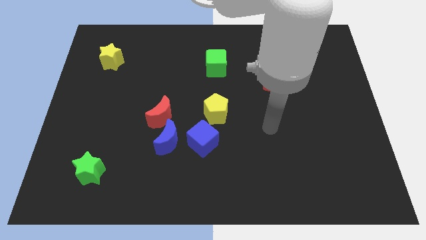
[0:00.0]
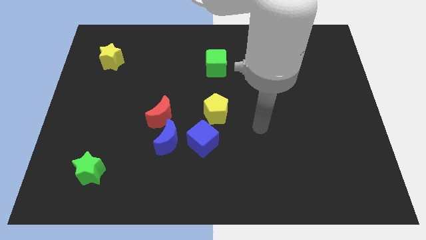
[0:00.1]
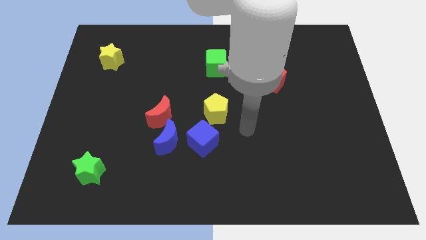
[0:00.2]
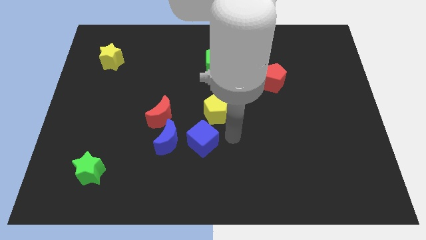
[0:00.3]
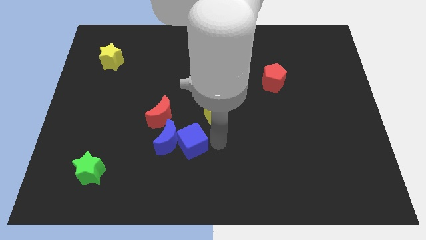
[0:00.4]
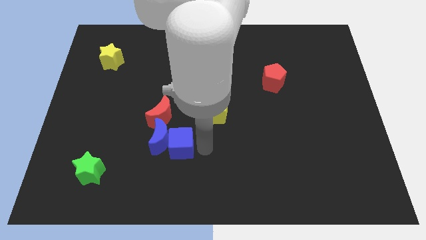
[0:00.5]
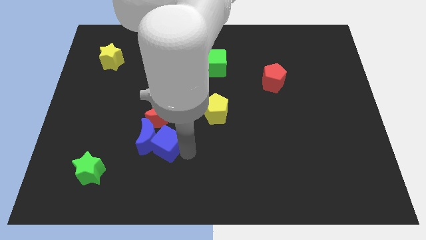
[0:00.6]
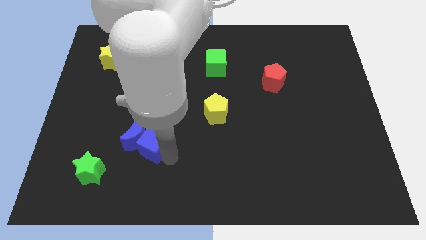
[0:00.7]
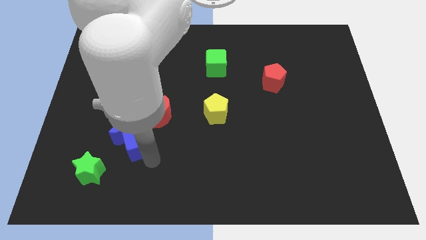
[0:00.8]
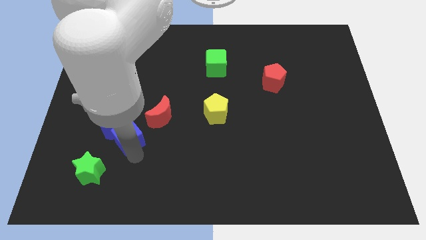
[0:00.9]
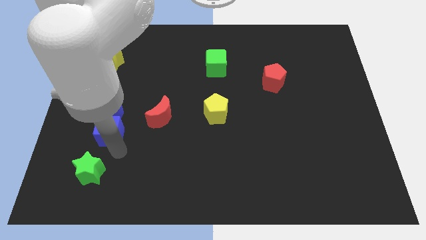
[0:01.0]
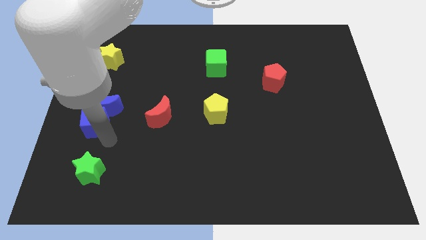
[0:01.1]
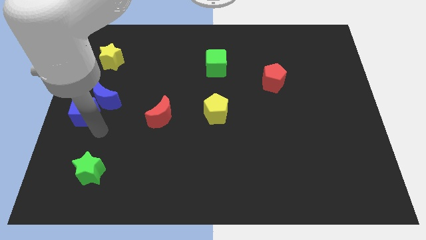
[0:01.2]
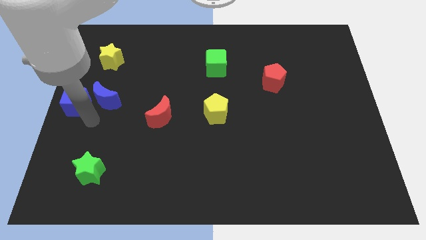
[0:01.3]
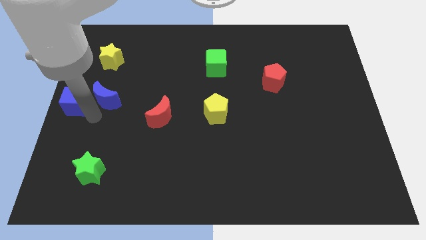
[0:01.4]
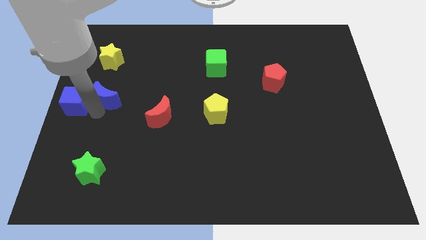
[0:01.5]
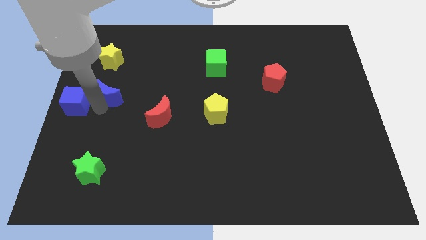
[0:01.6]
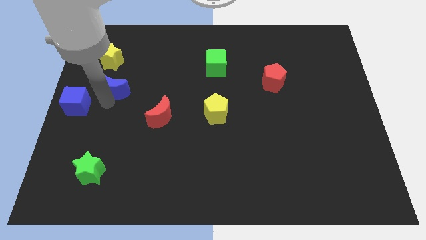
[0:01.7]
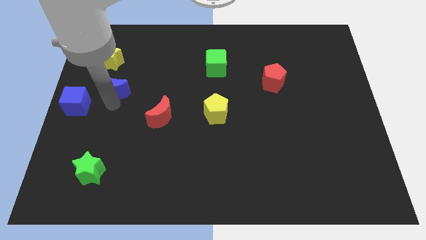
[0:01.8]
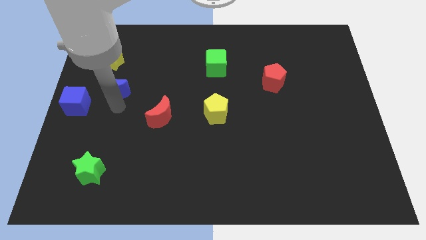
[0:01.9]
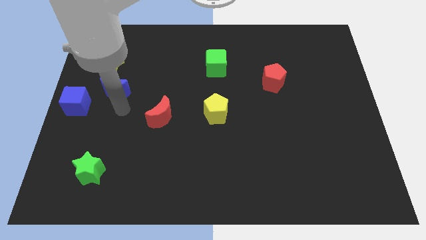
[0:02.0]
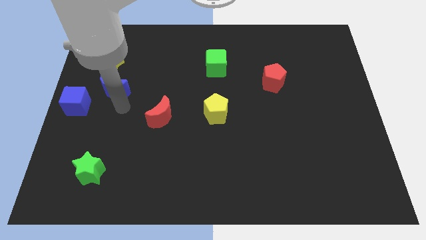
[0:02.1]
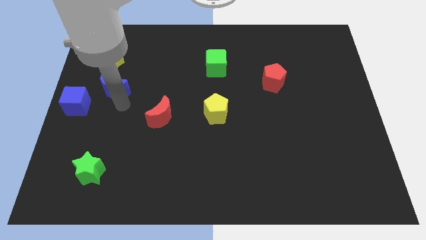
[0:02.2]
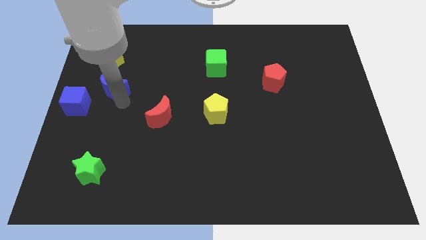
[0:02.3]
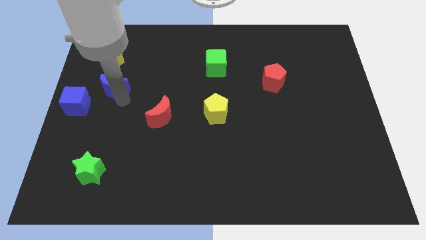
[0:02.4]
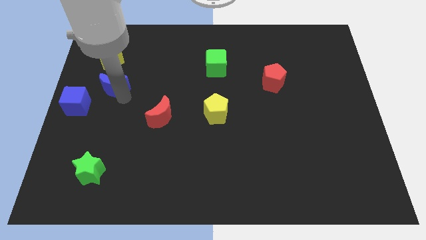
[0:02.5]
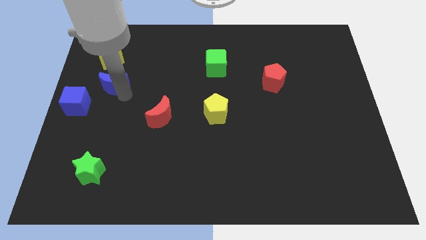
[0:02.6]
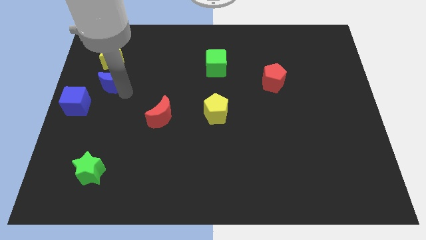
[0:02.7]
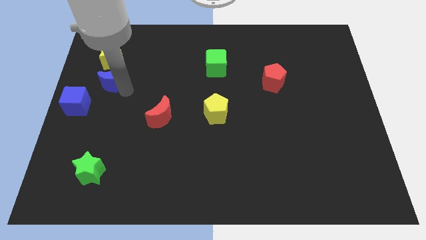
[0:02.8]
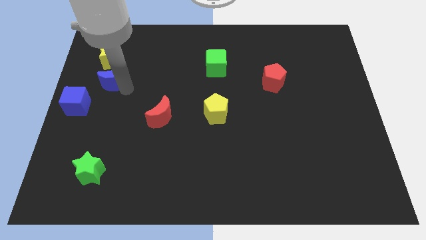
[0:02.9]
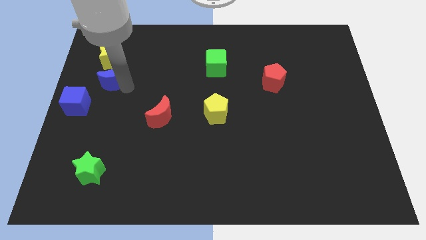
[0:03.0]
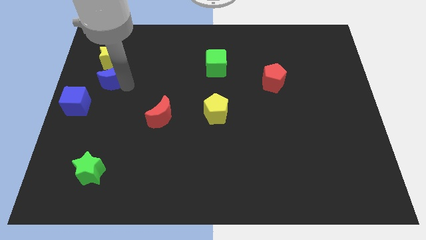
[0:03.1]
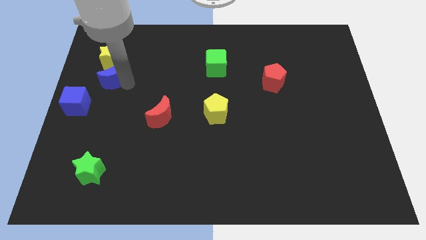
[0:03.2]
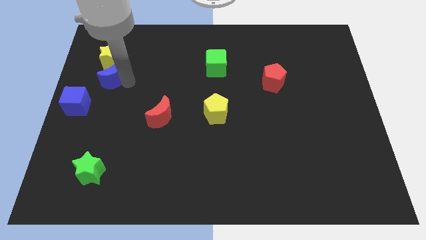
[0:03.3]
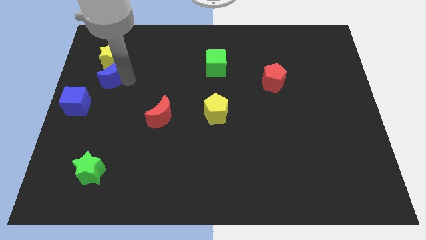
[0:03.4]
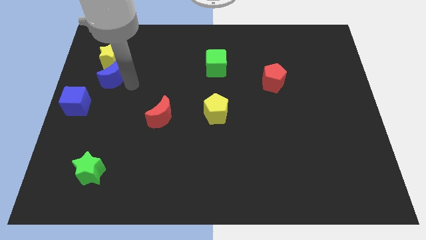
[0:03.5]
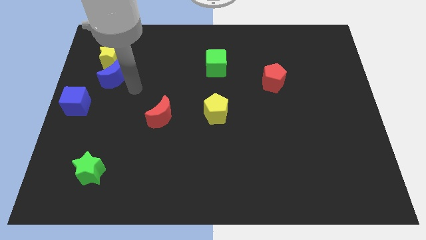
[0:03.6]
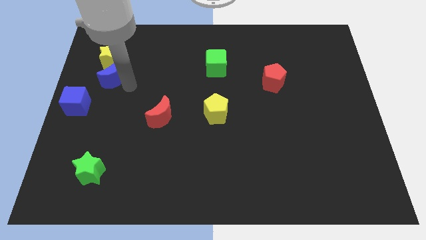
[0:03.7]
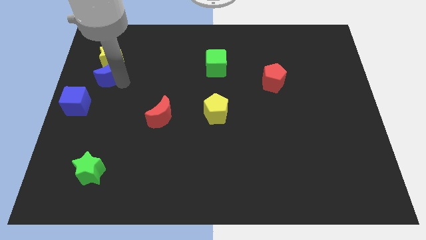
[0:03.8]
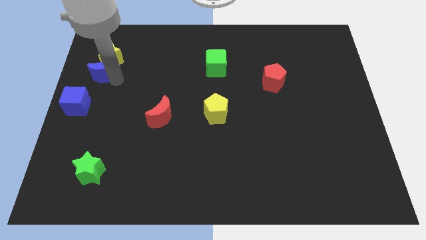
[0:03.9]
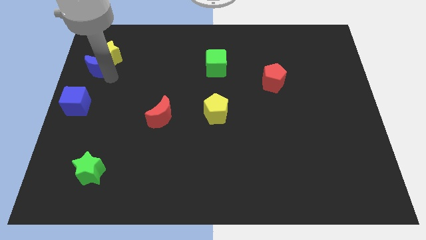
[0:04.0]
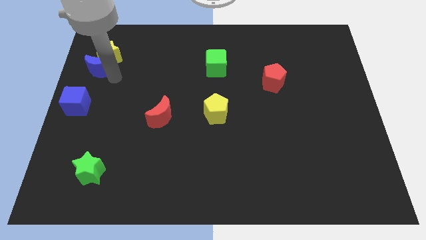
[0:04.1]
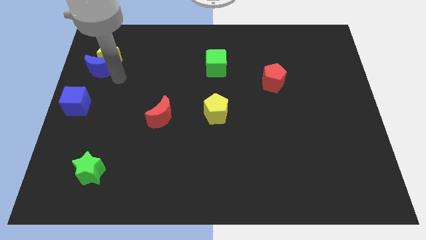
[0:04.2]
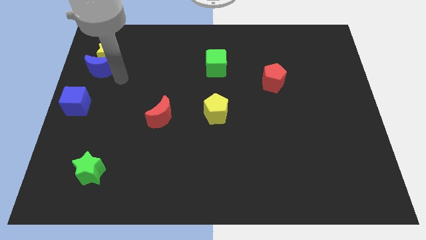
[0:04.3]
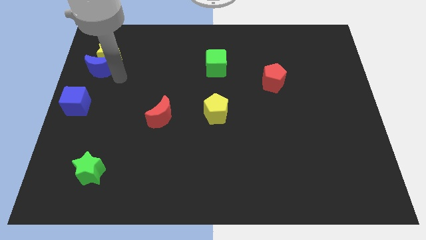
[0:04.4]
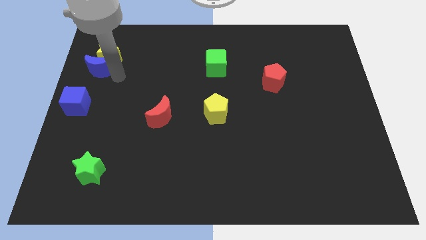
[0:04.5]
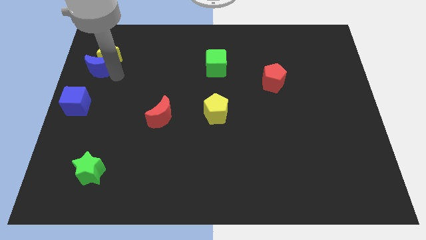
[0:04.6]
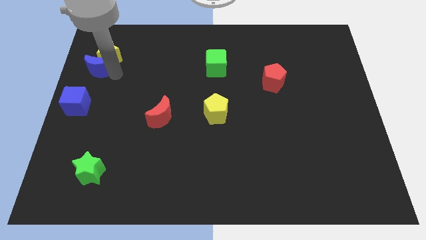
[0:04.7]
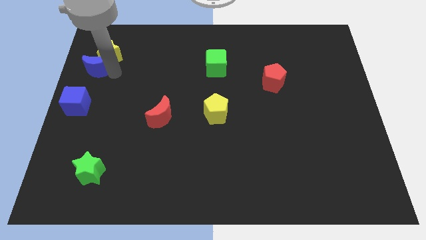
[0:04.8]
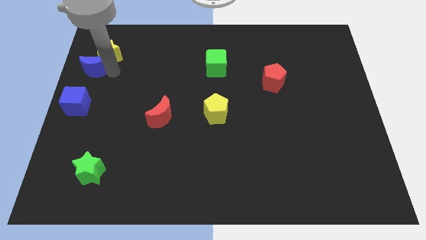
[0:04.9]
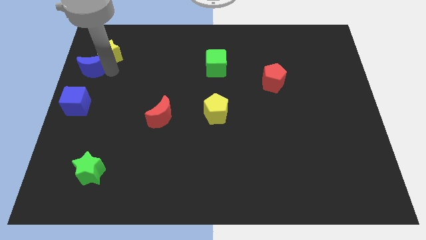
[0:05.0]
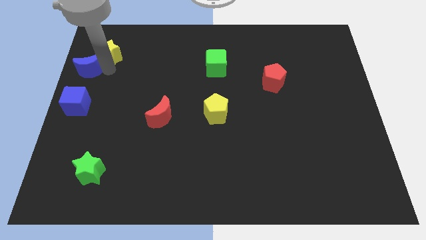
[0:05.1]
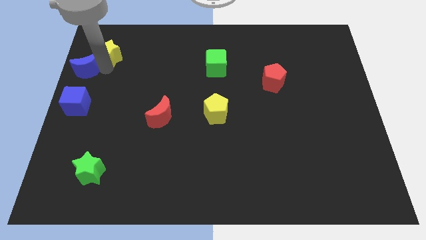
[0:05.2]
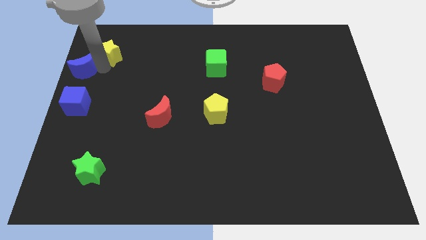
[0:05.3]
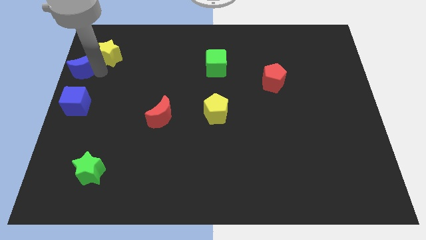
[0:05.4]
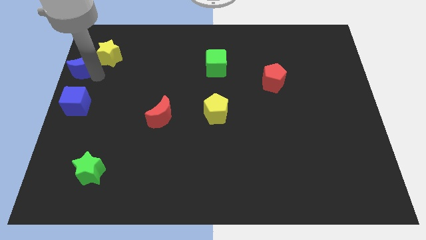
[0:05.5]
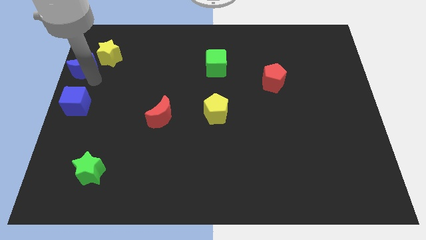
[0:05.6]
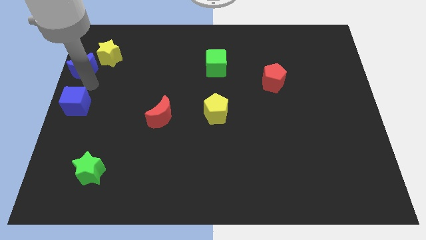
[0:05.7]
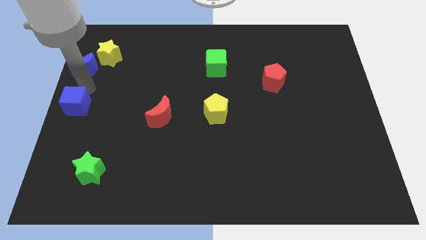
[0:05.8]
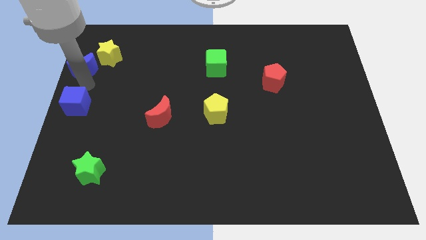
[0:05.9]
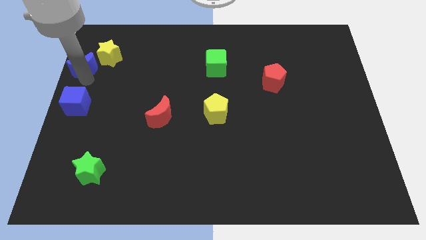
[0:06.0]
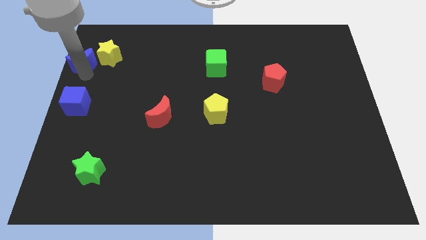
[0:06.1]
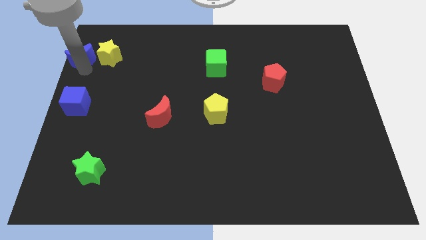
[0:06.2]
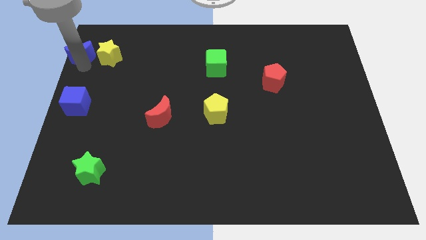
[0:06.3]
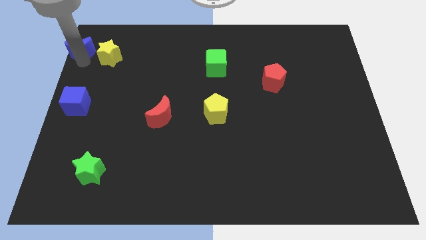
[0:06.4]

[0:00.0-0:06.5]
push the blue moon to the upper left corner

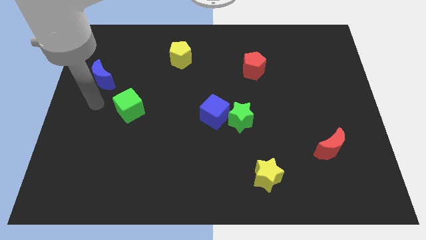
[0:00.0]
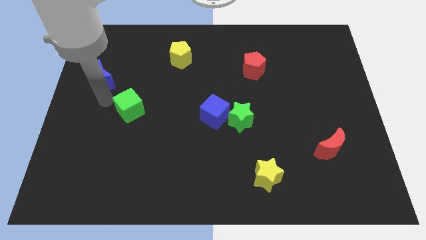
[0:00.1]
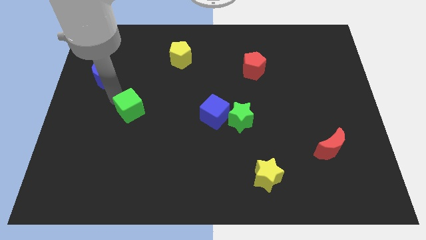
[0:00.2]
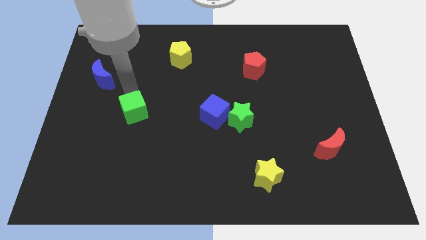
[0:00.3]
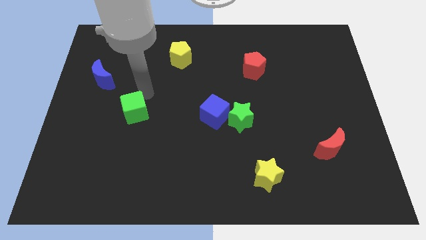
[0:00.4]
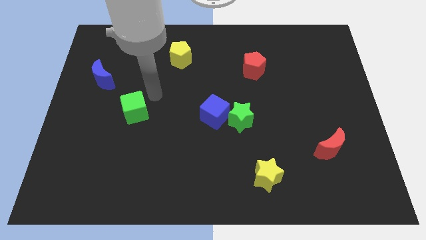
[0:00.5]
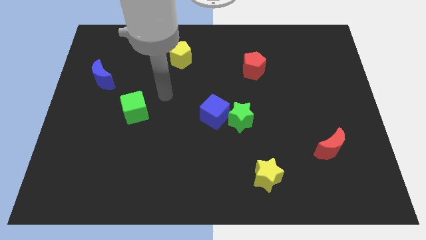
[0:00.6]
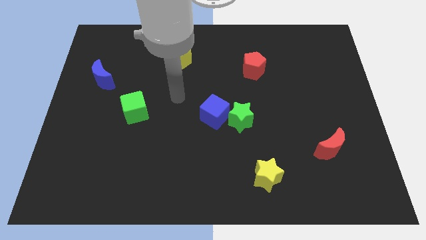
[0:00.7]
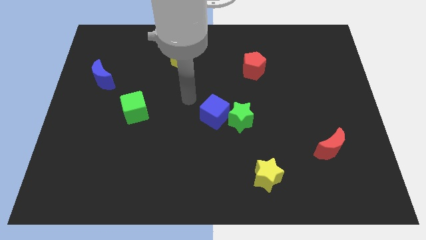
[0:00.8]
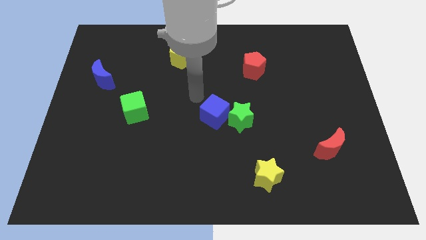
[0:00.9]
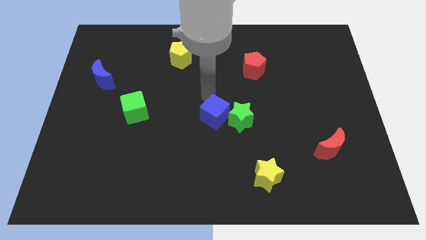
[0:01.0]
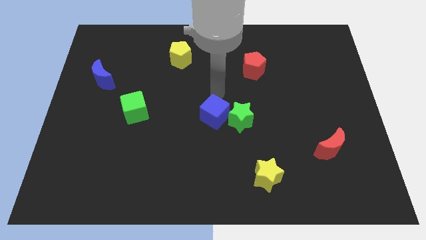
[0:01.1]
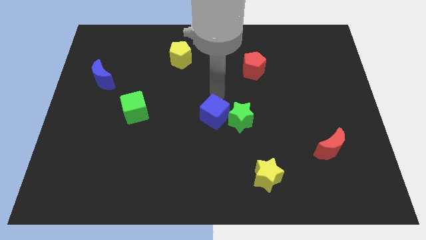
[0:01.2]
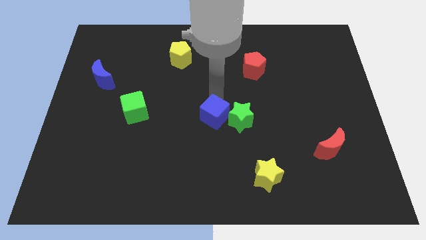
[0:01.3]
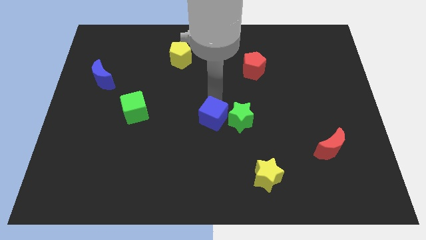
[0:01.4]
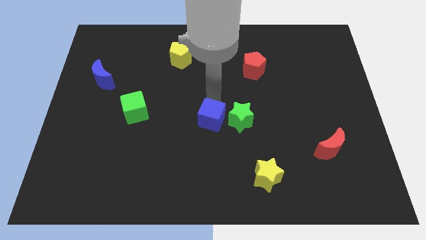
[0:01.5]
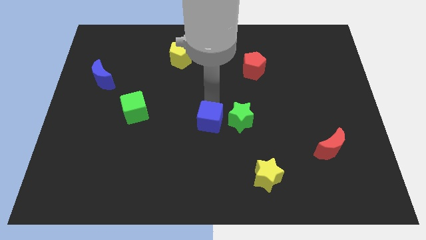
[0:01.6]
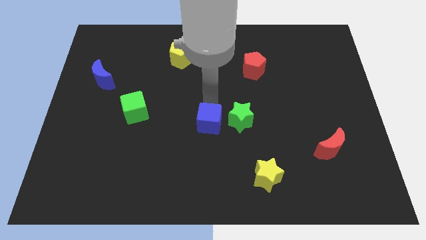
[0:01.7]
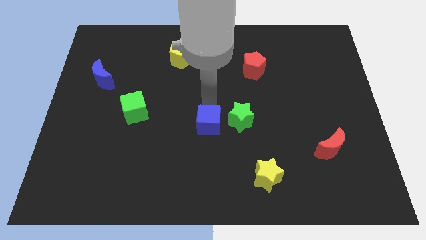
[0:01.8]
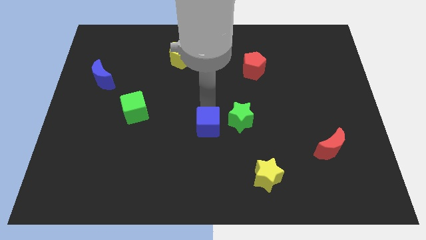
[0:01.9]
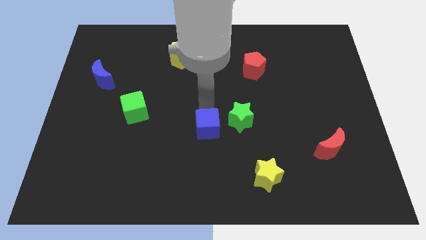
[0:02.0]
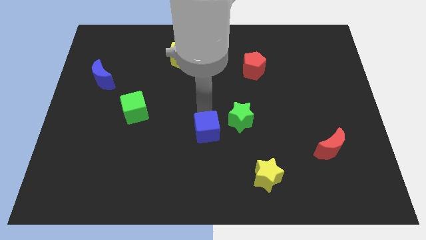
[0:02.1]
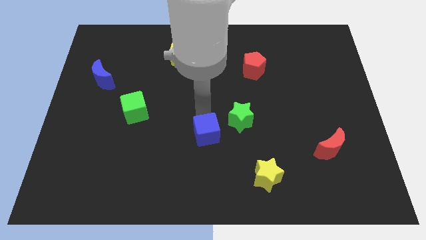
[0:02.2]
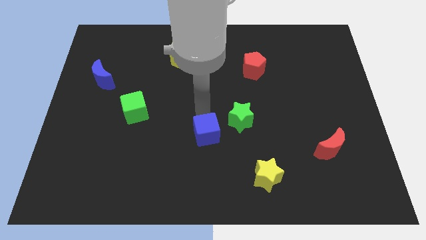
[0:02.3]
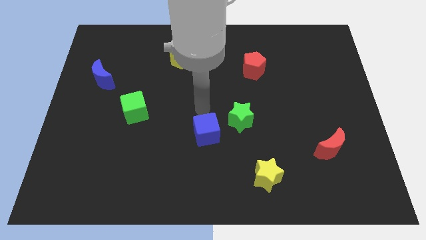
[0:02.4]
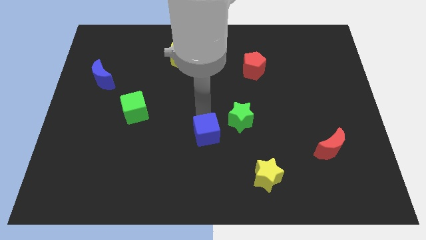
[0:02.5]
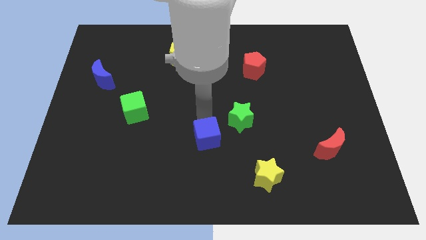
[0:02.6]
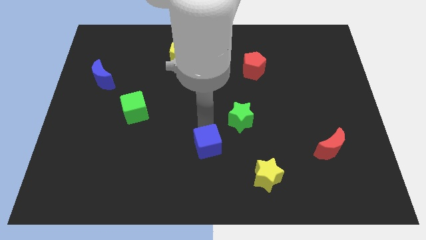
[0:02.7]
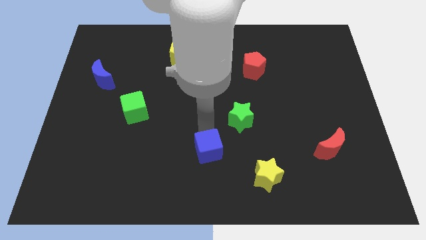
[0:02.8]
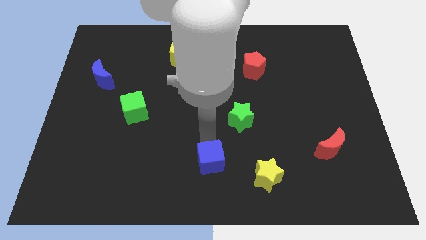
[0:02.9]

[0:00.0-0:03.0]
put the blue cube to the bottom side
